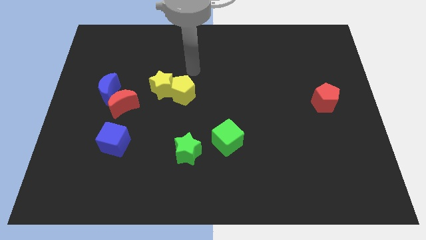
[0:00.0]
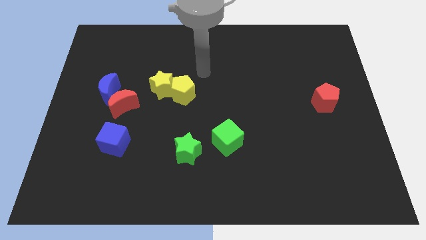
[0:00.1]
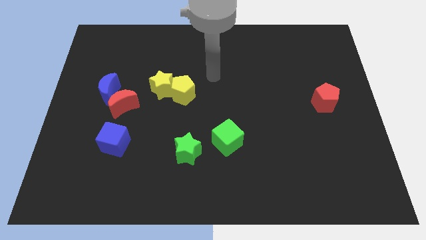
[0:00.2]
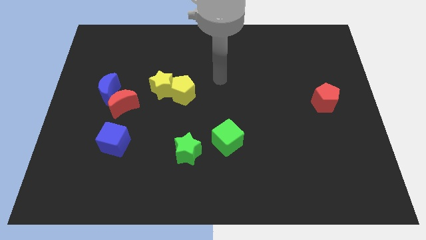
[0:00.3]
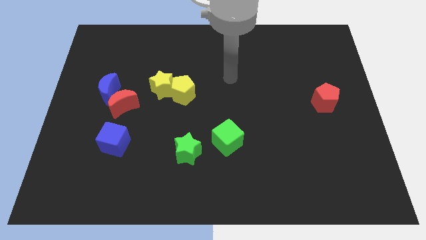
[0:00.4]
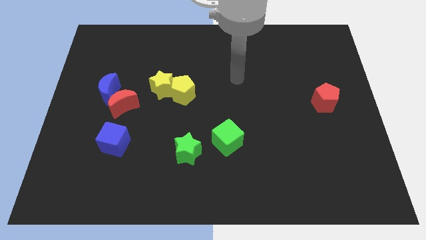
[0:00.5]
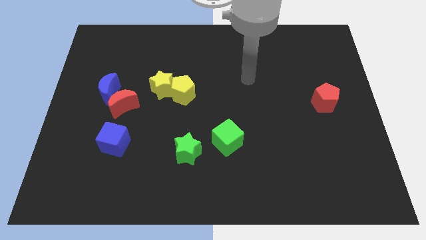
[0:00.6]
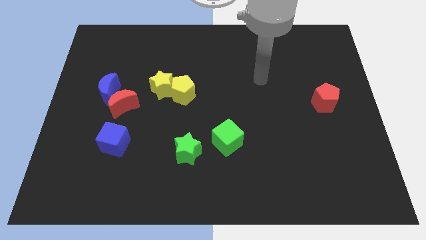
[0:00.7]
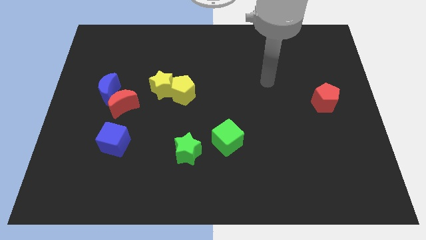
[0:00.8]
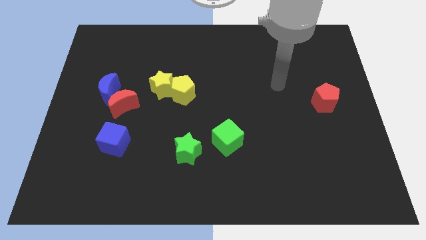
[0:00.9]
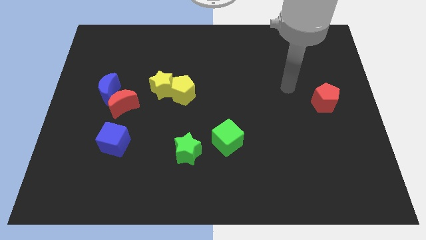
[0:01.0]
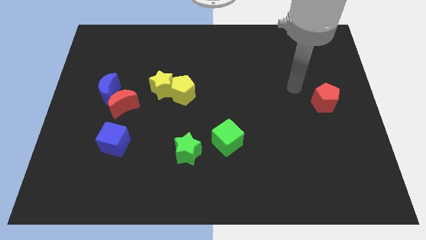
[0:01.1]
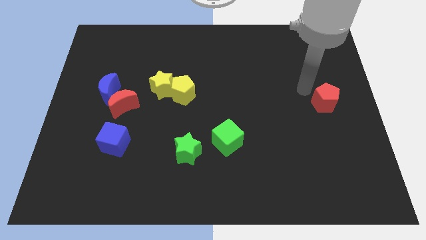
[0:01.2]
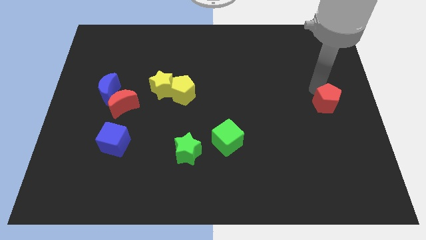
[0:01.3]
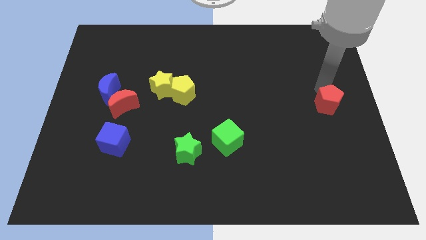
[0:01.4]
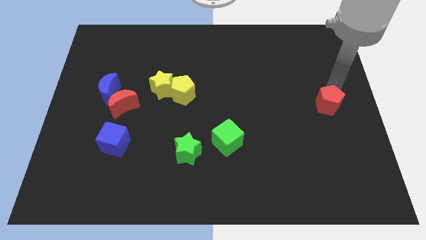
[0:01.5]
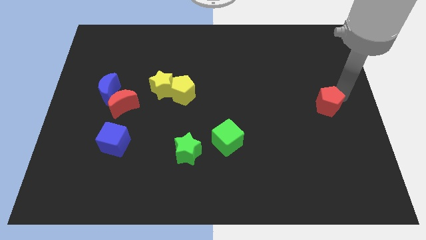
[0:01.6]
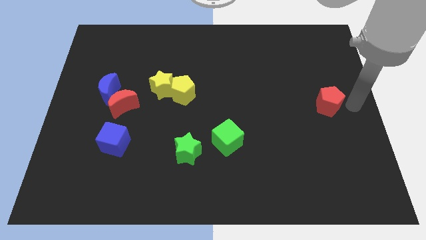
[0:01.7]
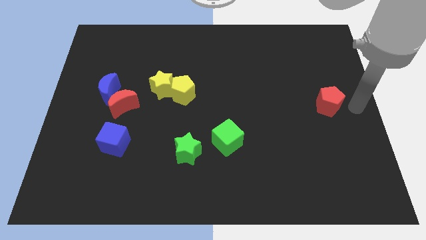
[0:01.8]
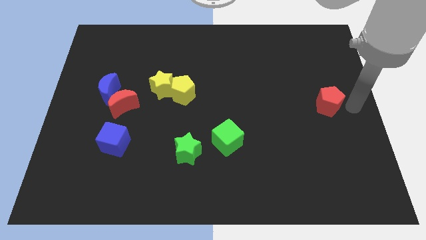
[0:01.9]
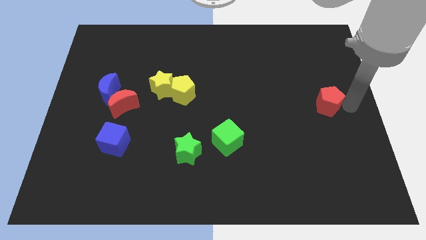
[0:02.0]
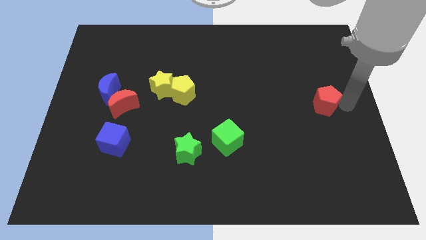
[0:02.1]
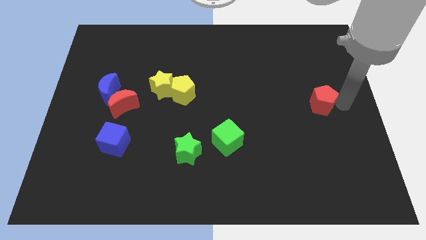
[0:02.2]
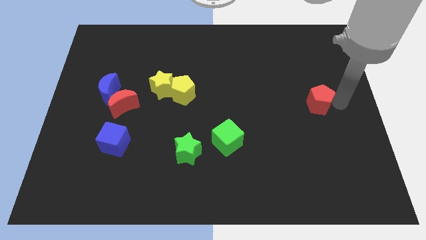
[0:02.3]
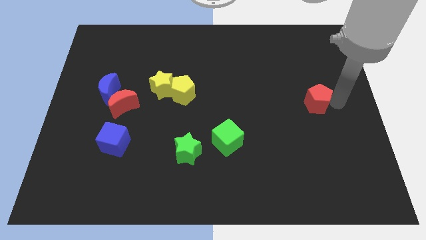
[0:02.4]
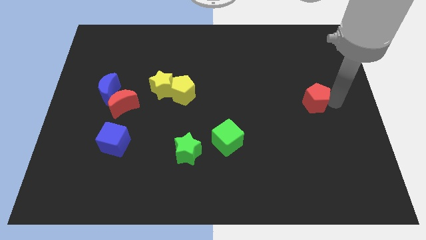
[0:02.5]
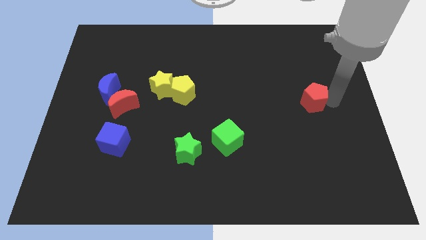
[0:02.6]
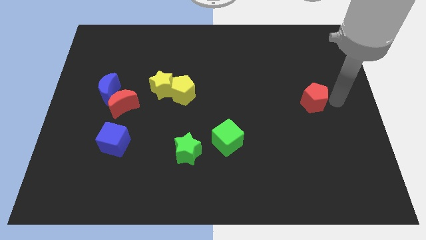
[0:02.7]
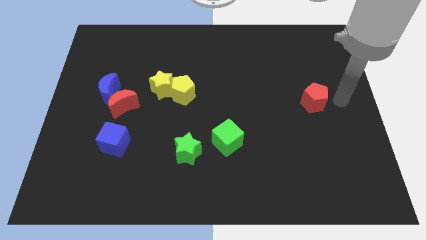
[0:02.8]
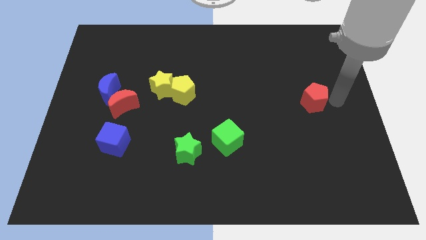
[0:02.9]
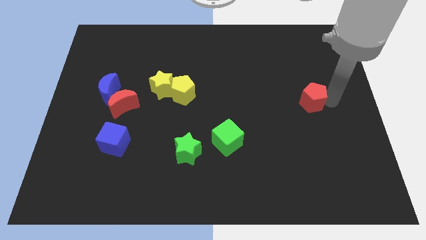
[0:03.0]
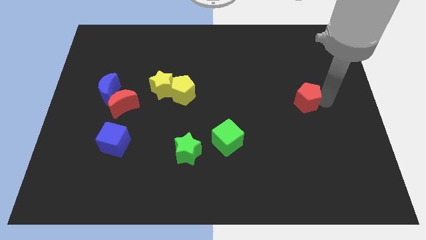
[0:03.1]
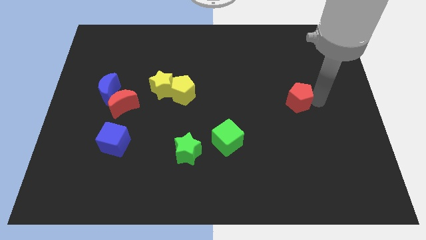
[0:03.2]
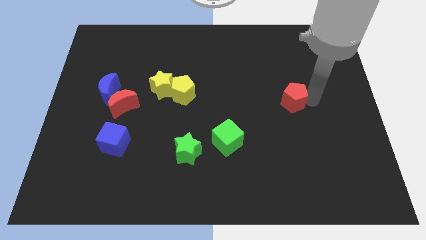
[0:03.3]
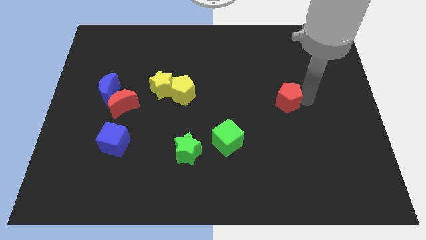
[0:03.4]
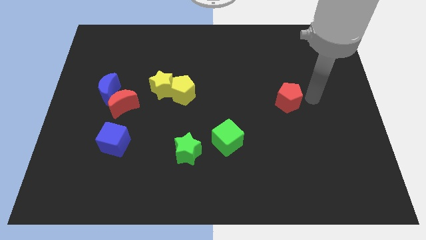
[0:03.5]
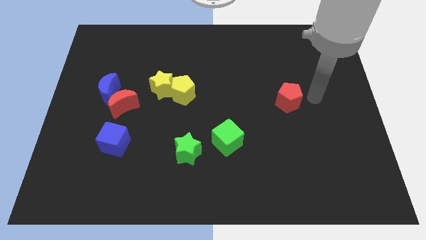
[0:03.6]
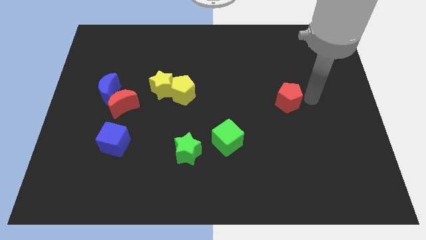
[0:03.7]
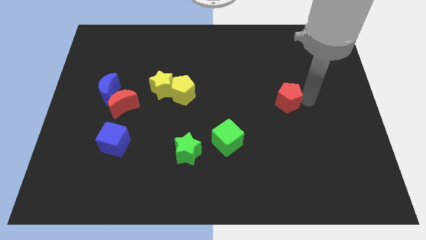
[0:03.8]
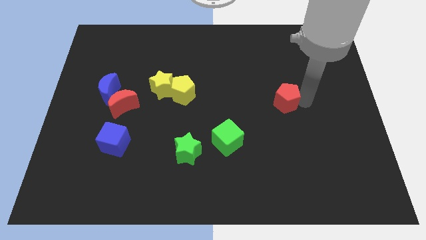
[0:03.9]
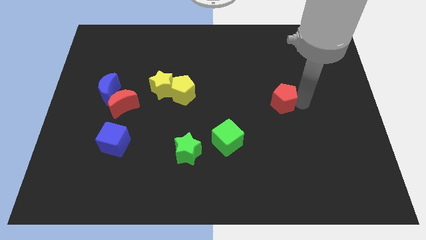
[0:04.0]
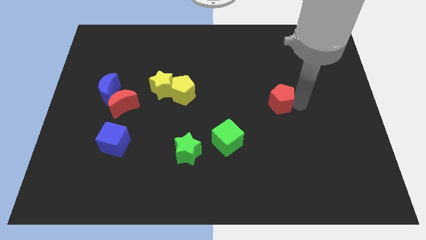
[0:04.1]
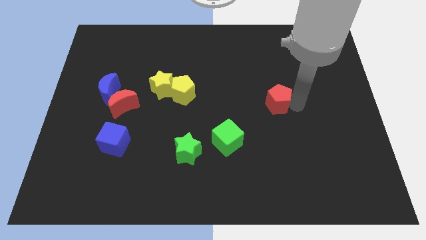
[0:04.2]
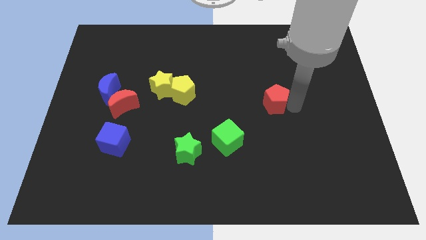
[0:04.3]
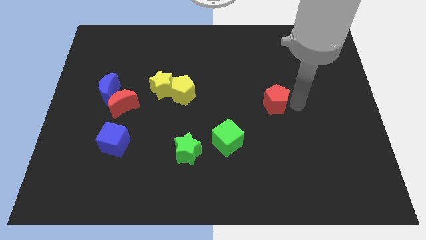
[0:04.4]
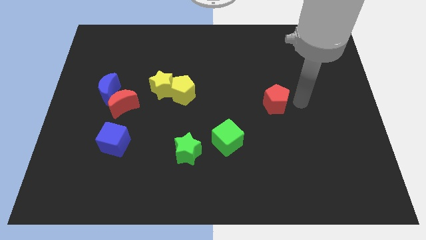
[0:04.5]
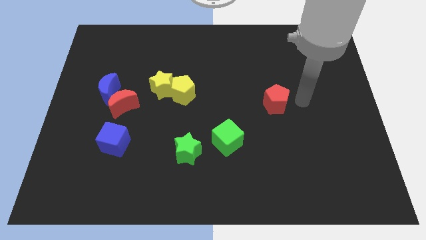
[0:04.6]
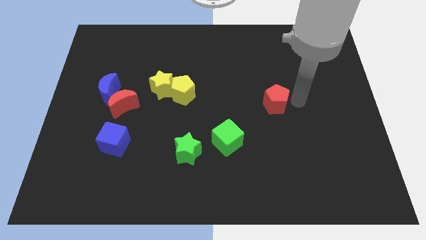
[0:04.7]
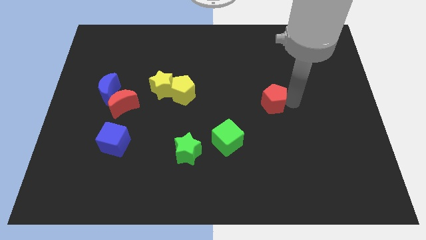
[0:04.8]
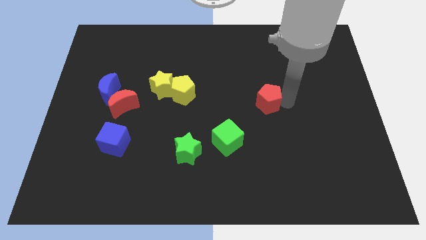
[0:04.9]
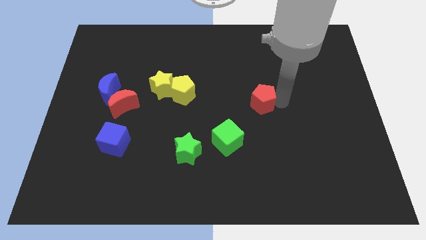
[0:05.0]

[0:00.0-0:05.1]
push the red pentagon to the middle

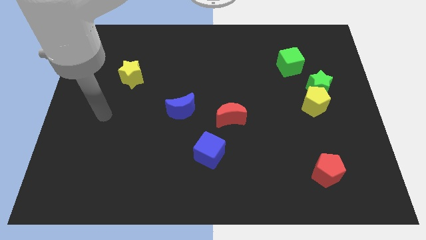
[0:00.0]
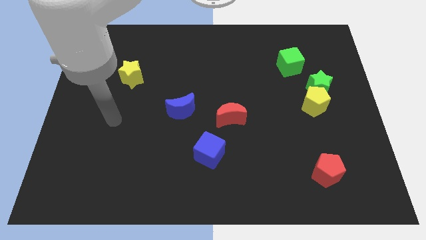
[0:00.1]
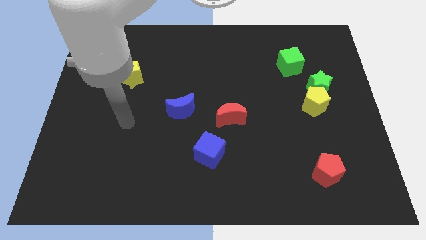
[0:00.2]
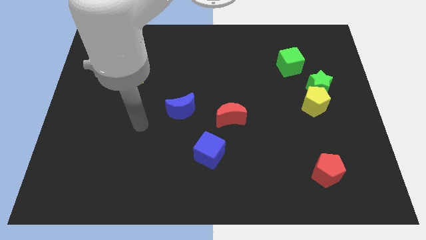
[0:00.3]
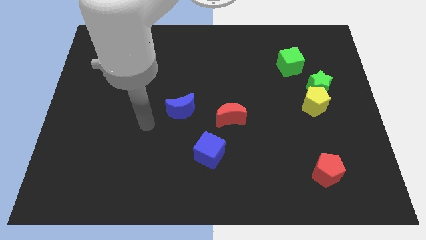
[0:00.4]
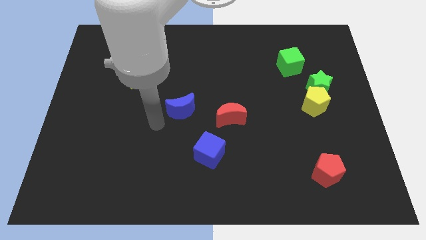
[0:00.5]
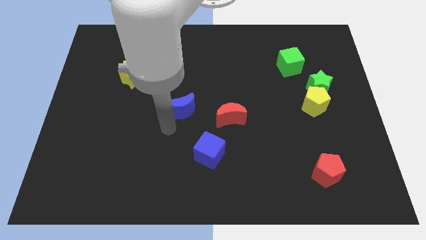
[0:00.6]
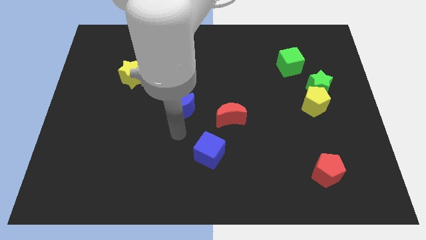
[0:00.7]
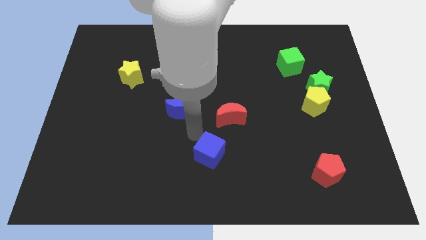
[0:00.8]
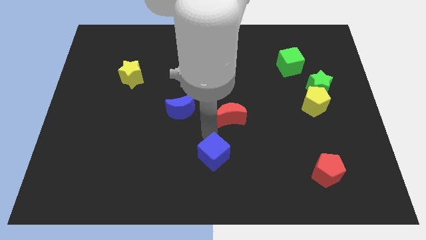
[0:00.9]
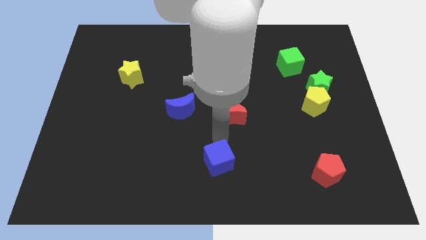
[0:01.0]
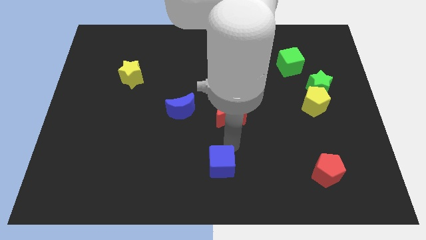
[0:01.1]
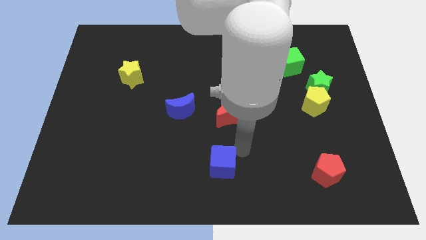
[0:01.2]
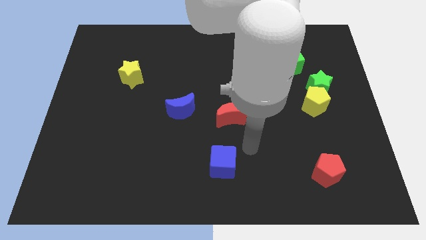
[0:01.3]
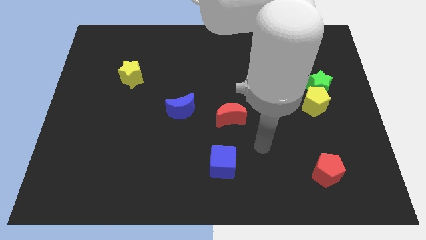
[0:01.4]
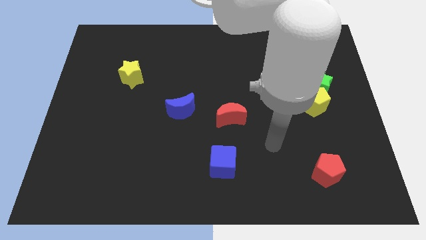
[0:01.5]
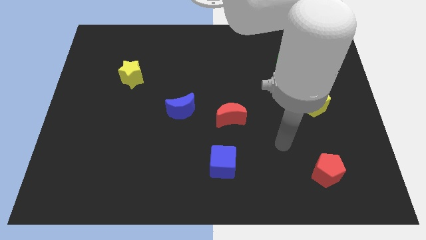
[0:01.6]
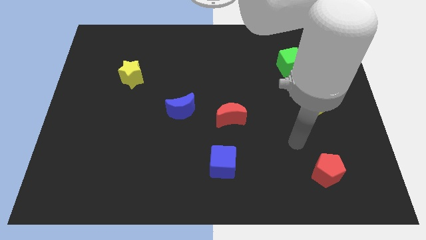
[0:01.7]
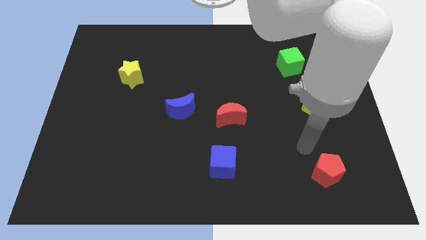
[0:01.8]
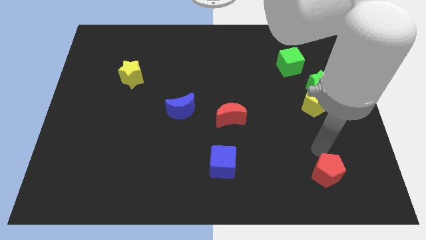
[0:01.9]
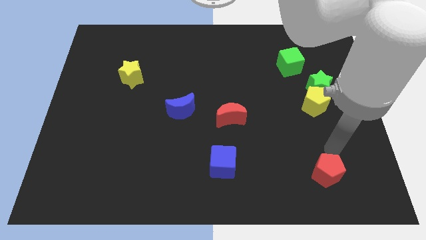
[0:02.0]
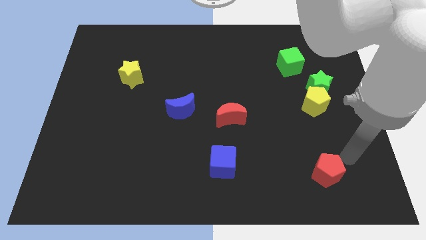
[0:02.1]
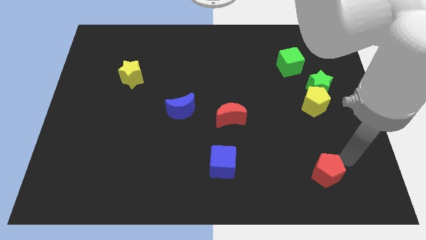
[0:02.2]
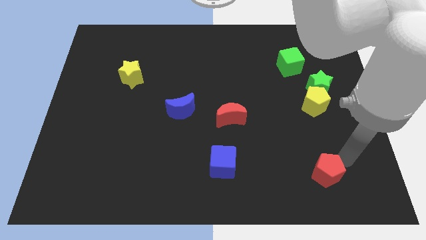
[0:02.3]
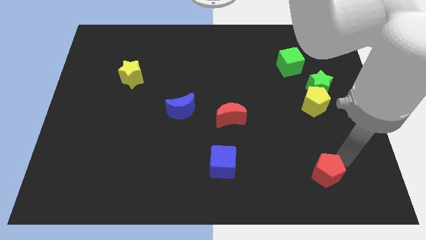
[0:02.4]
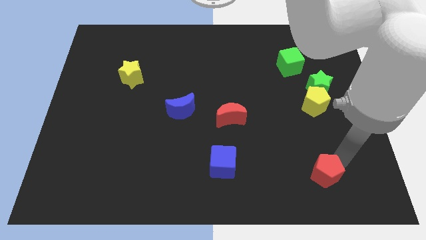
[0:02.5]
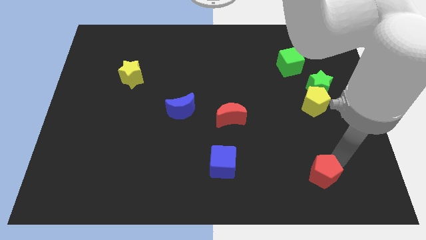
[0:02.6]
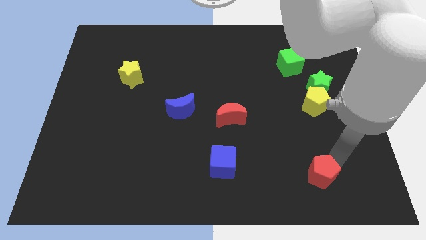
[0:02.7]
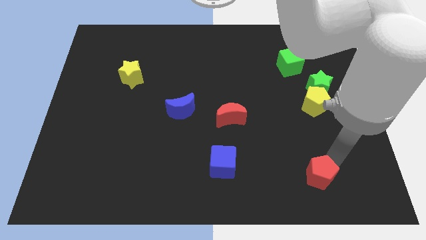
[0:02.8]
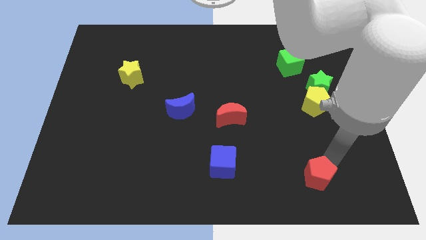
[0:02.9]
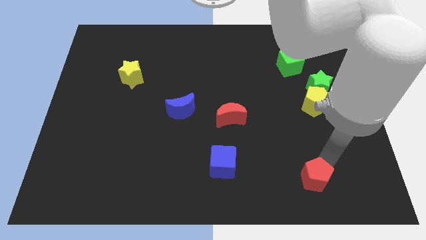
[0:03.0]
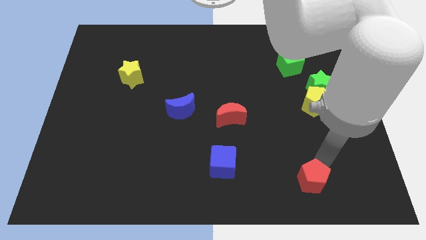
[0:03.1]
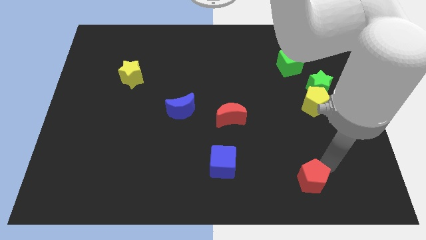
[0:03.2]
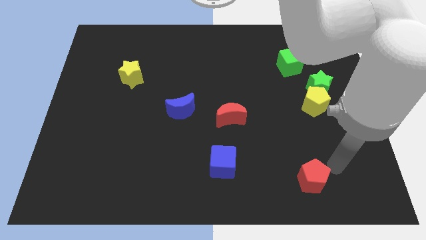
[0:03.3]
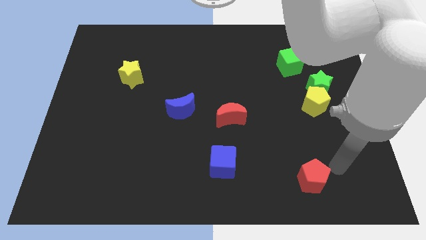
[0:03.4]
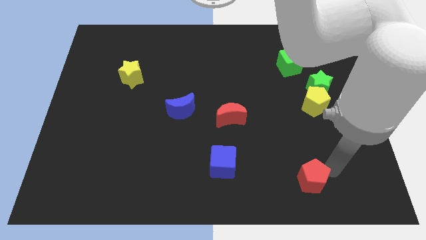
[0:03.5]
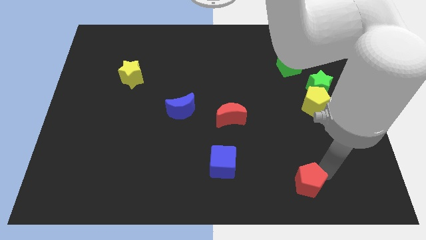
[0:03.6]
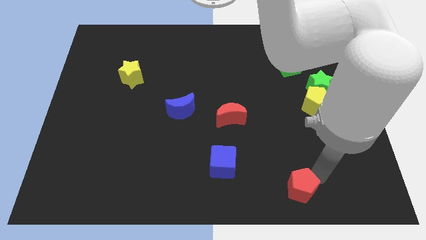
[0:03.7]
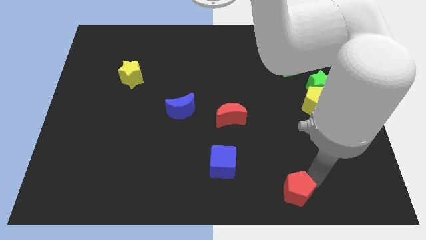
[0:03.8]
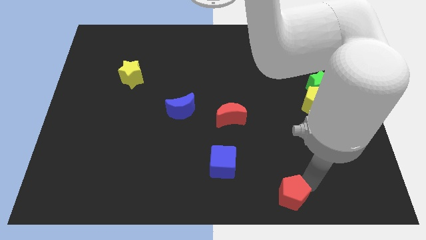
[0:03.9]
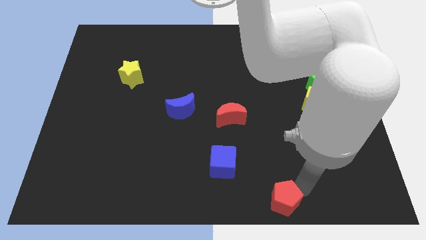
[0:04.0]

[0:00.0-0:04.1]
push the red pentagon to the bottom
